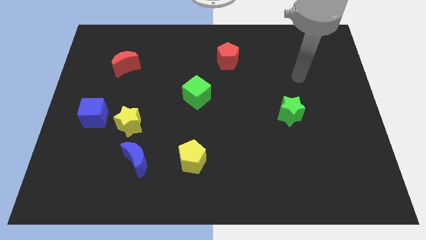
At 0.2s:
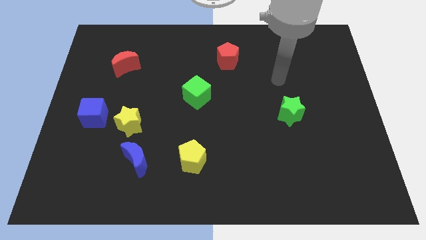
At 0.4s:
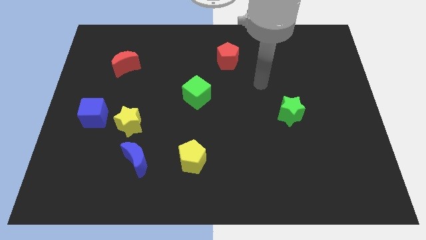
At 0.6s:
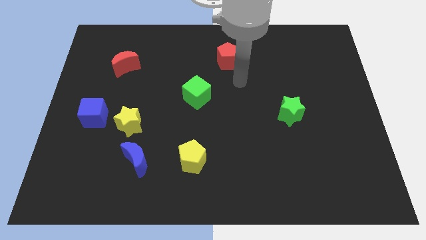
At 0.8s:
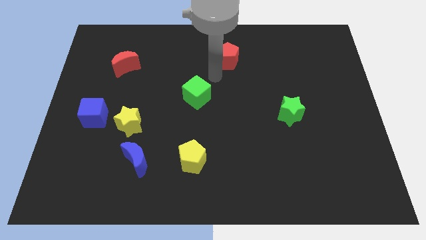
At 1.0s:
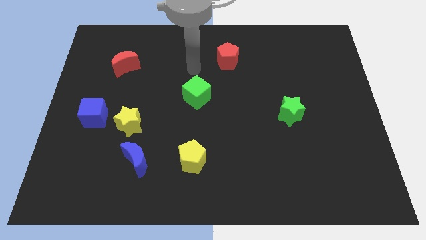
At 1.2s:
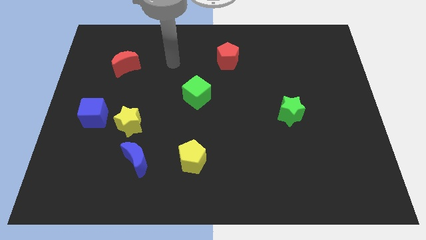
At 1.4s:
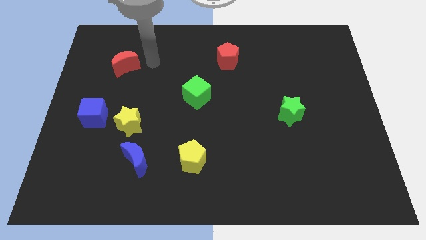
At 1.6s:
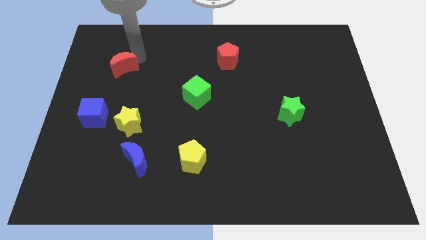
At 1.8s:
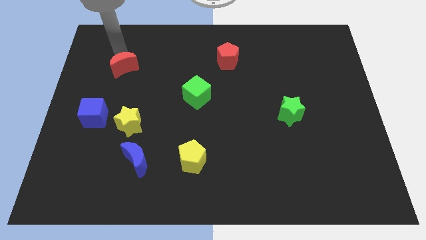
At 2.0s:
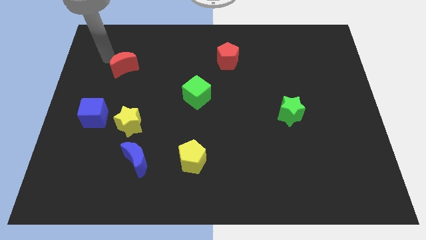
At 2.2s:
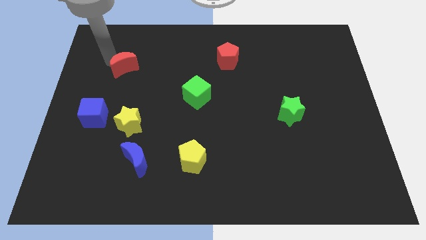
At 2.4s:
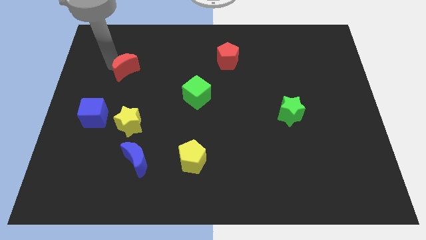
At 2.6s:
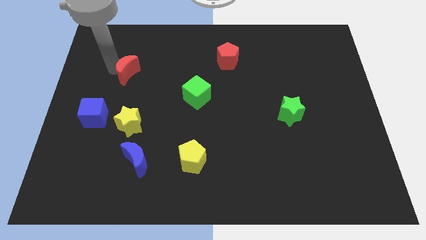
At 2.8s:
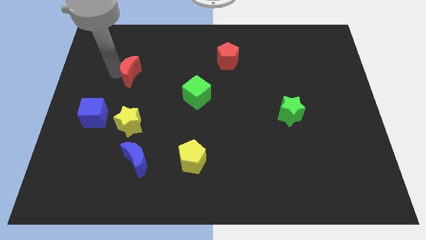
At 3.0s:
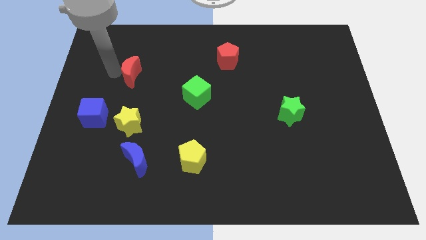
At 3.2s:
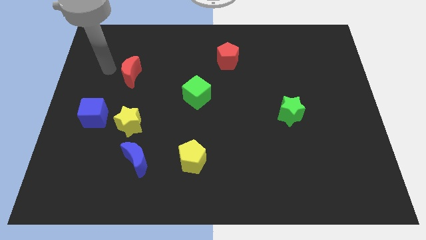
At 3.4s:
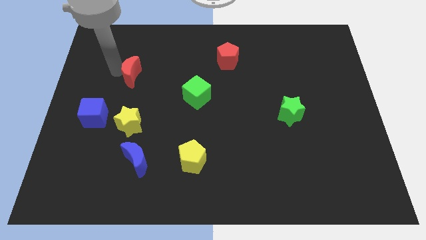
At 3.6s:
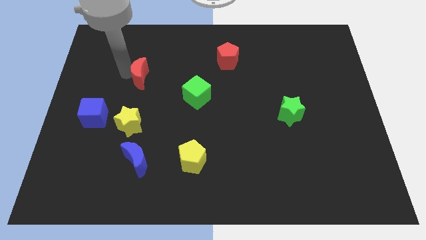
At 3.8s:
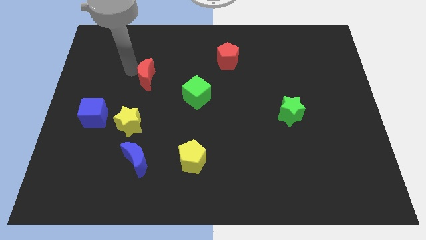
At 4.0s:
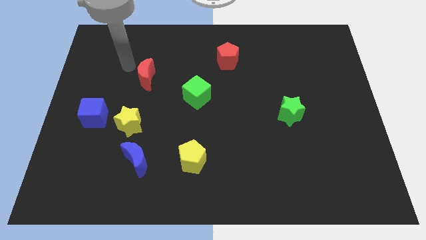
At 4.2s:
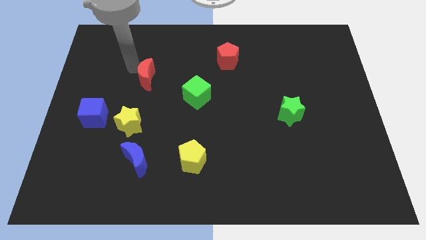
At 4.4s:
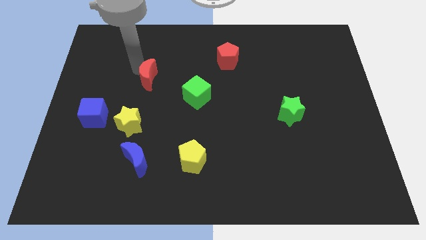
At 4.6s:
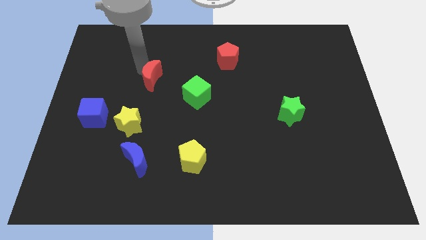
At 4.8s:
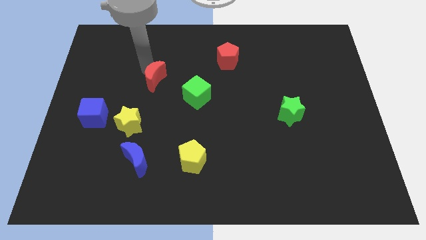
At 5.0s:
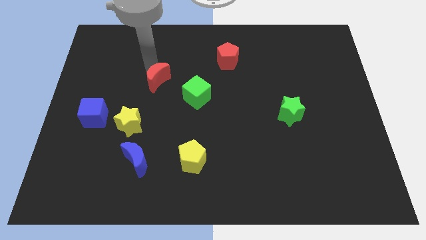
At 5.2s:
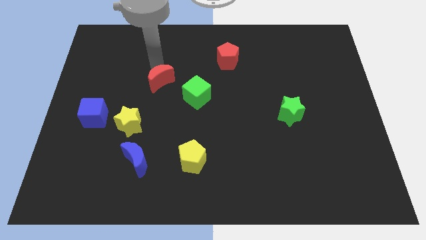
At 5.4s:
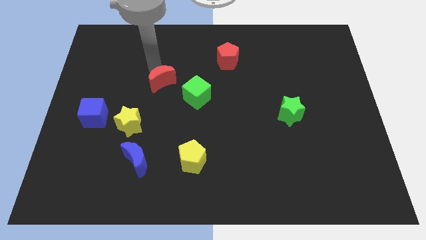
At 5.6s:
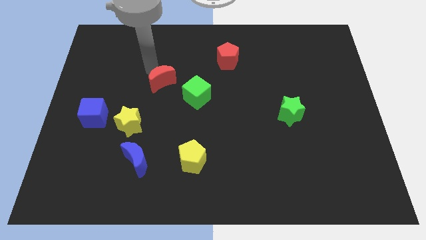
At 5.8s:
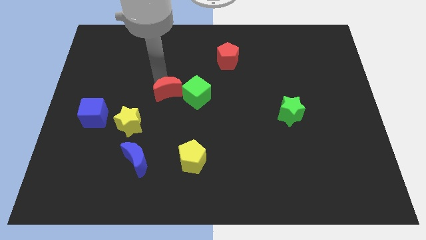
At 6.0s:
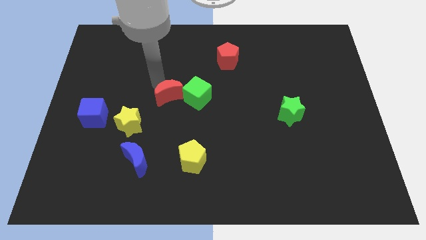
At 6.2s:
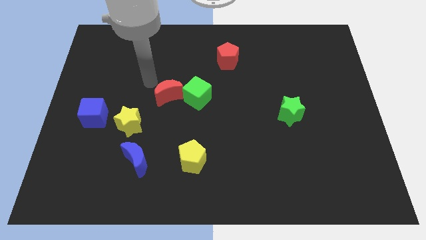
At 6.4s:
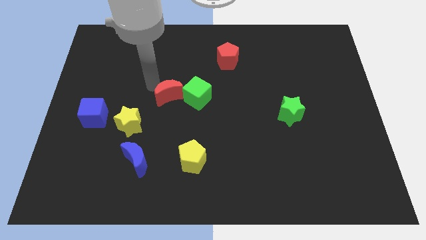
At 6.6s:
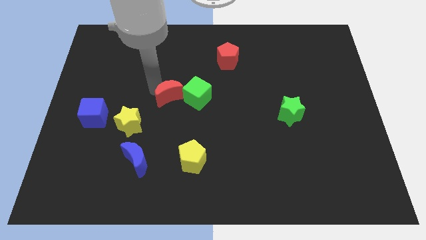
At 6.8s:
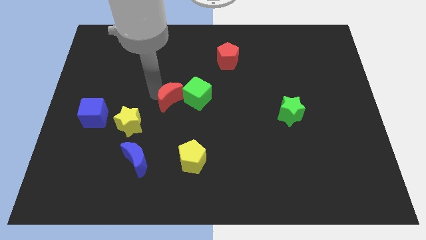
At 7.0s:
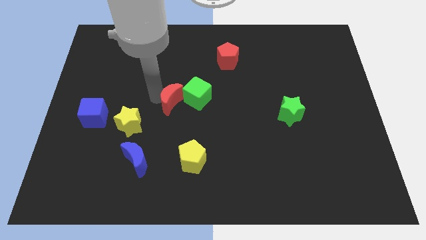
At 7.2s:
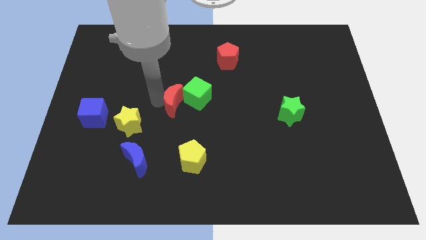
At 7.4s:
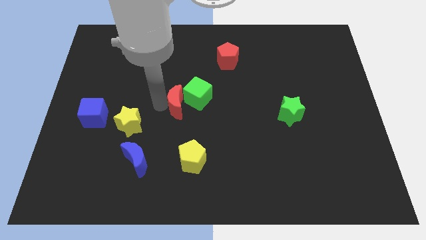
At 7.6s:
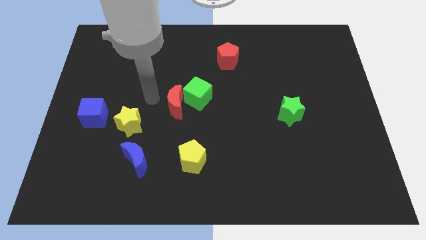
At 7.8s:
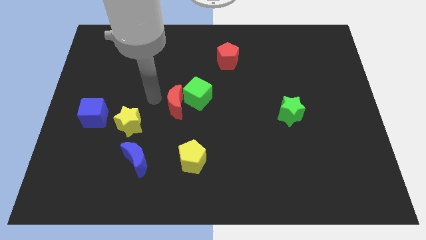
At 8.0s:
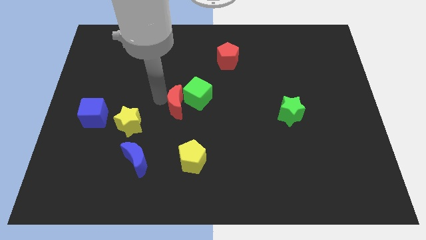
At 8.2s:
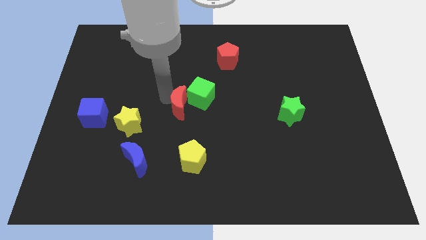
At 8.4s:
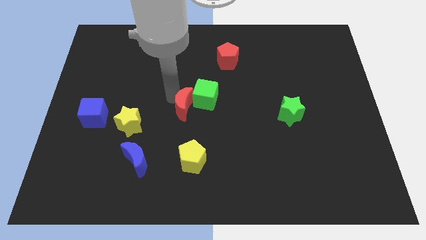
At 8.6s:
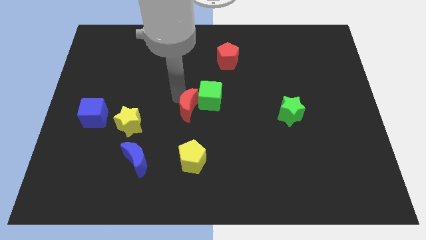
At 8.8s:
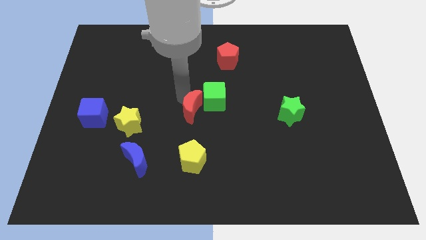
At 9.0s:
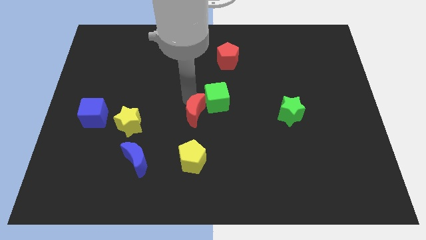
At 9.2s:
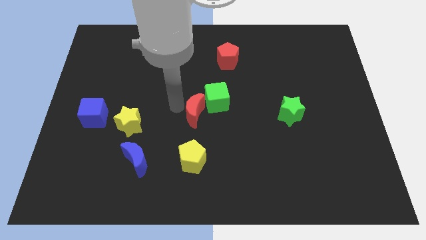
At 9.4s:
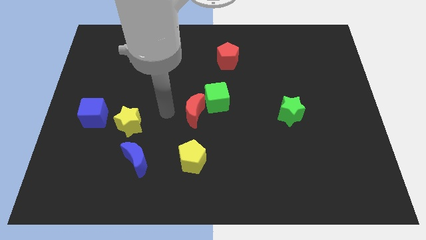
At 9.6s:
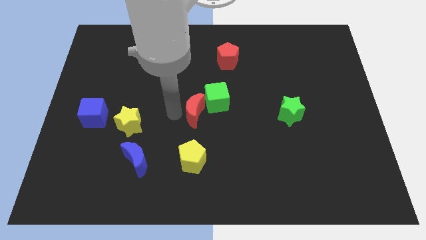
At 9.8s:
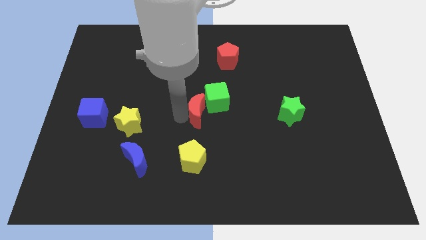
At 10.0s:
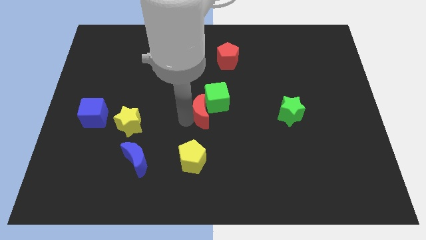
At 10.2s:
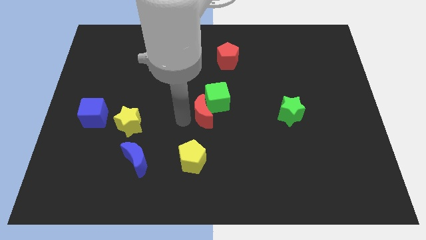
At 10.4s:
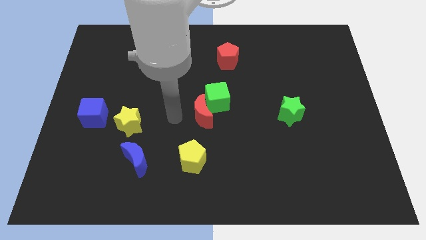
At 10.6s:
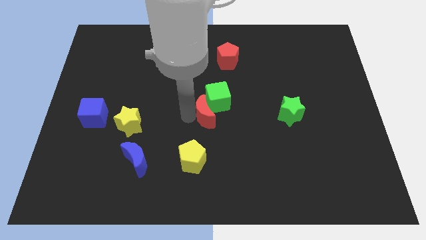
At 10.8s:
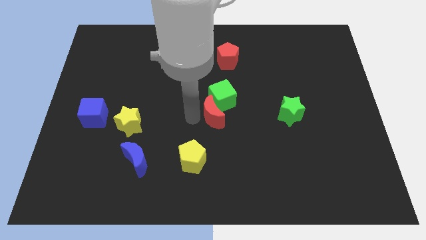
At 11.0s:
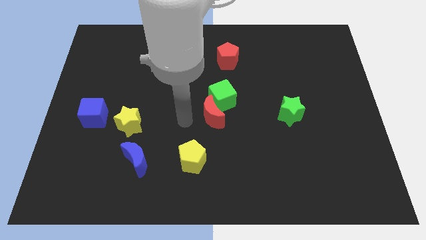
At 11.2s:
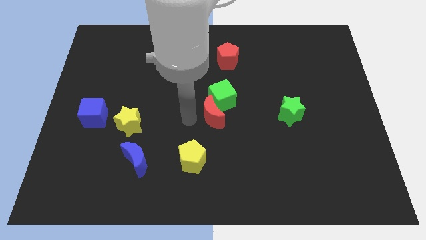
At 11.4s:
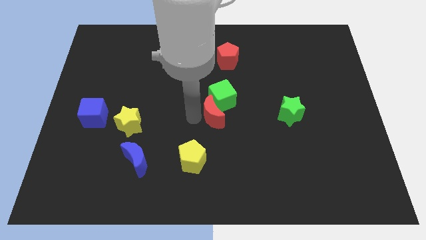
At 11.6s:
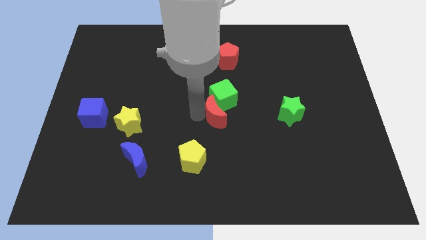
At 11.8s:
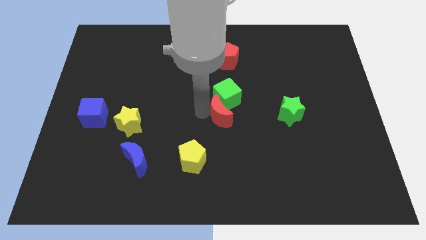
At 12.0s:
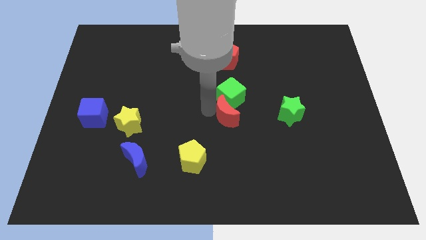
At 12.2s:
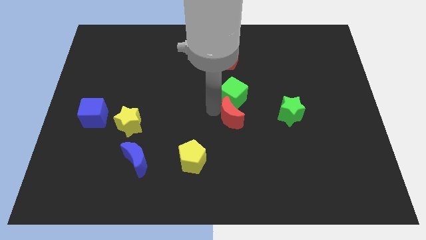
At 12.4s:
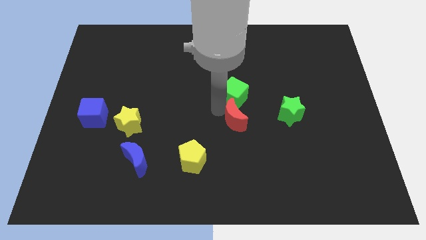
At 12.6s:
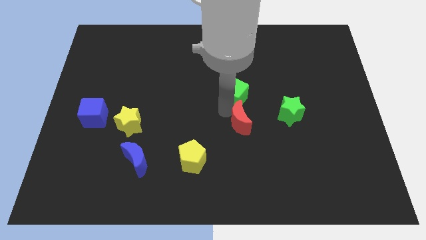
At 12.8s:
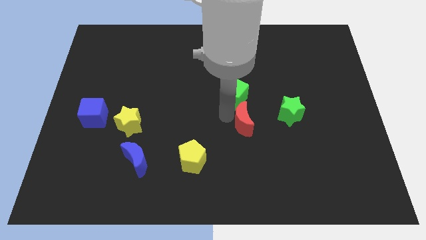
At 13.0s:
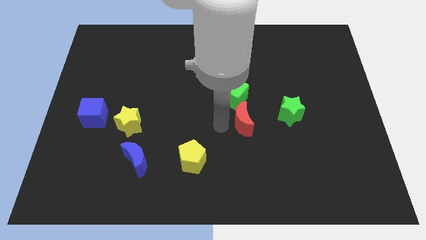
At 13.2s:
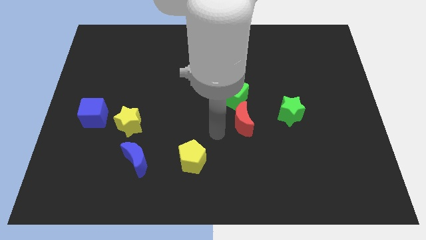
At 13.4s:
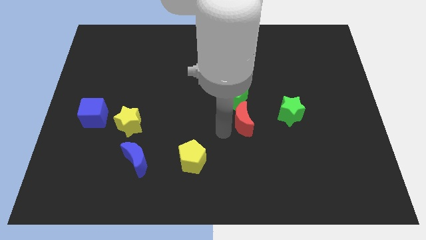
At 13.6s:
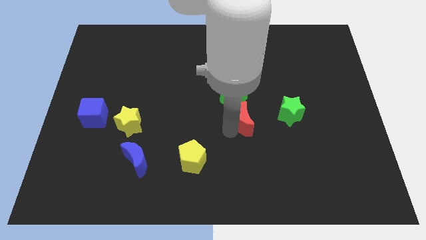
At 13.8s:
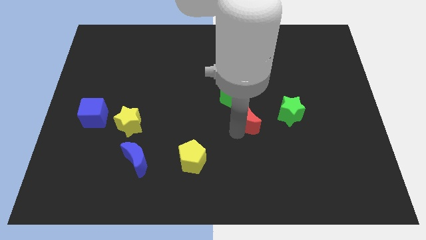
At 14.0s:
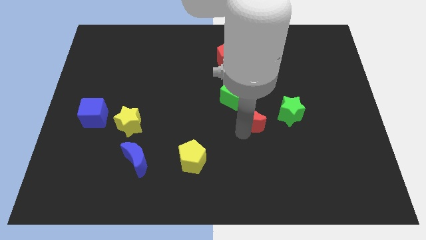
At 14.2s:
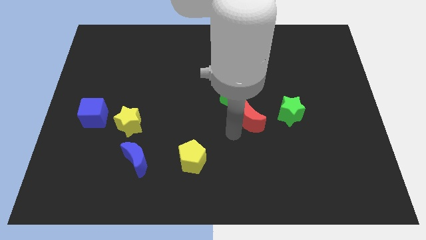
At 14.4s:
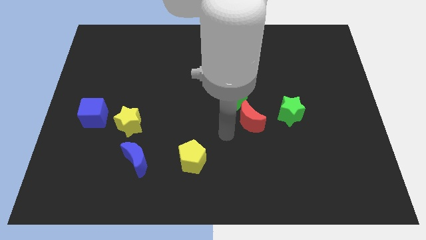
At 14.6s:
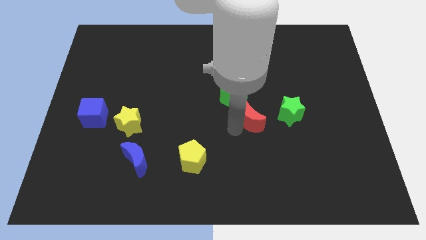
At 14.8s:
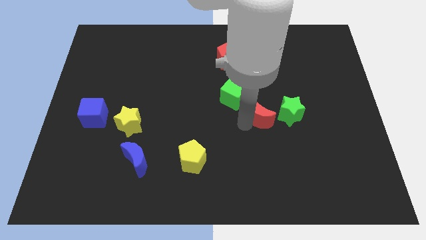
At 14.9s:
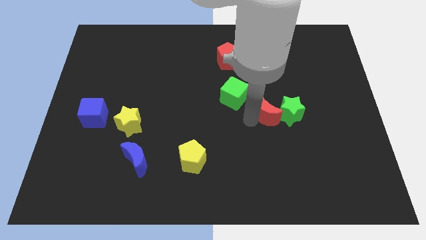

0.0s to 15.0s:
push the red moon close to the green star
